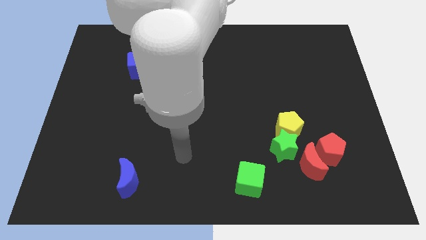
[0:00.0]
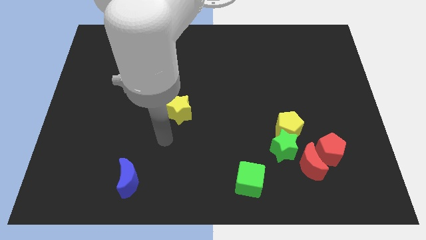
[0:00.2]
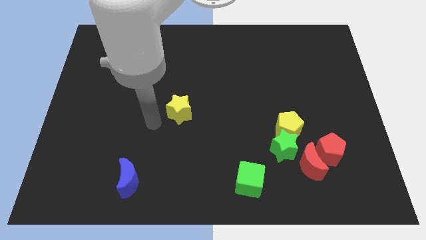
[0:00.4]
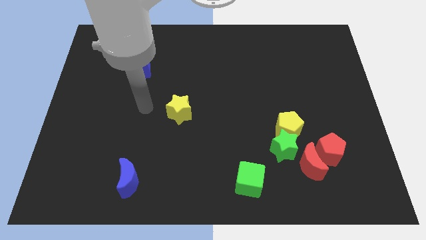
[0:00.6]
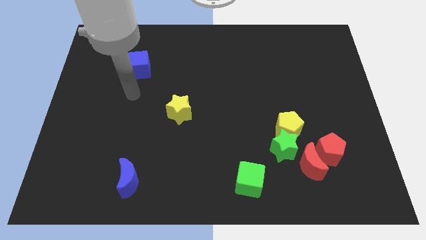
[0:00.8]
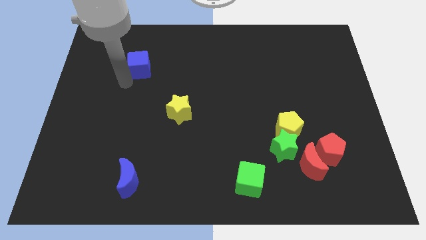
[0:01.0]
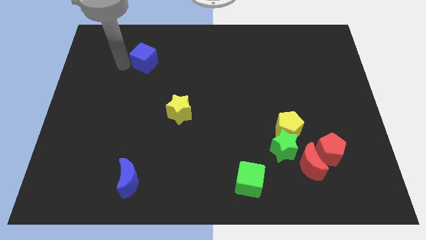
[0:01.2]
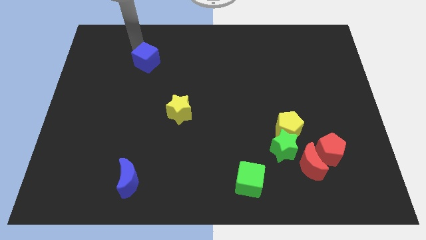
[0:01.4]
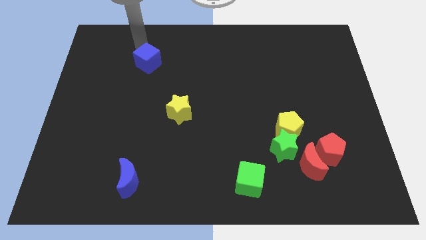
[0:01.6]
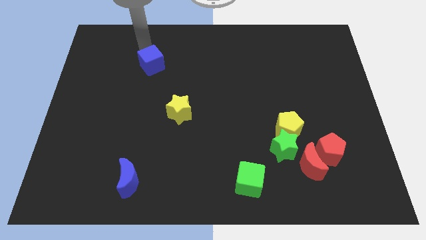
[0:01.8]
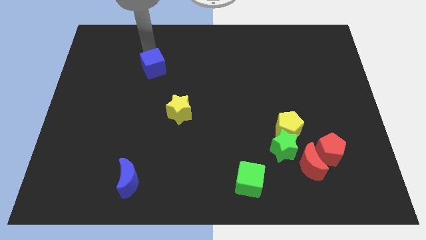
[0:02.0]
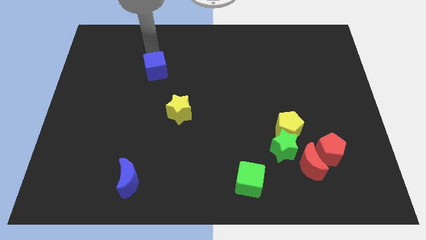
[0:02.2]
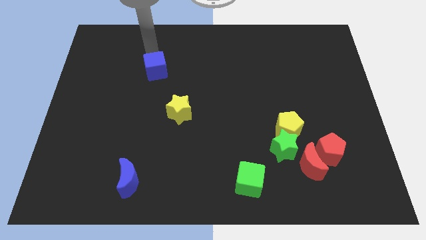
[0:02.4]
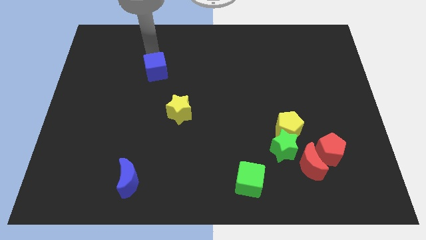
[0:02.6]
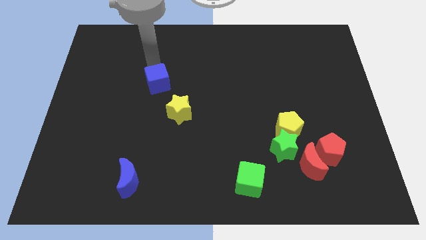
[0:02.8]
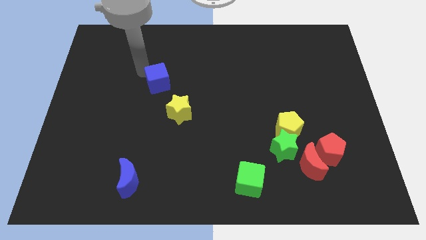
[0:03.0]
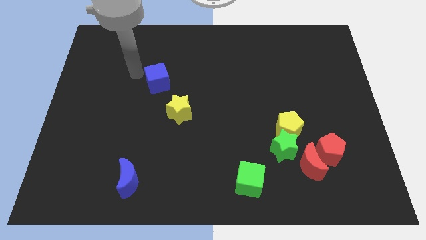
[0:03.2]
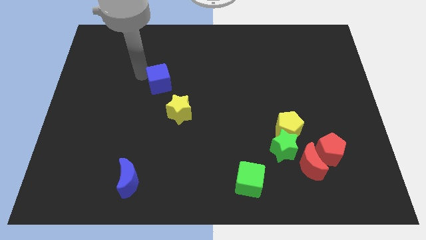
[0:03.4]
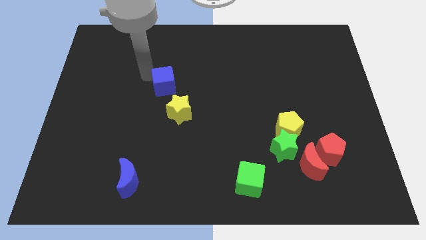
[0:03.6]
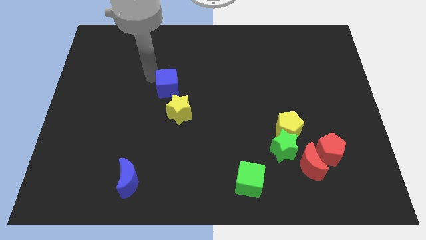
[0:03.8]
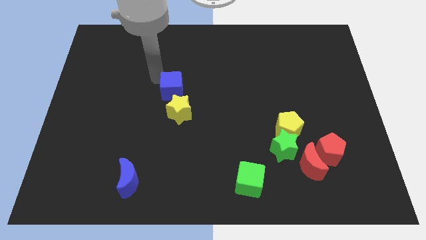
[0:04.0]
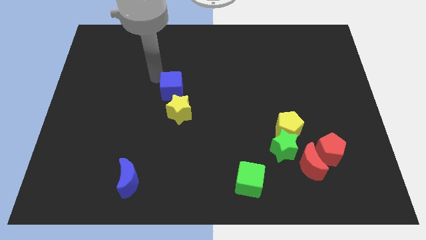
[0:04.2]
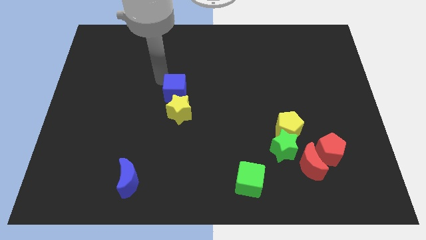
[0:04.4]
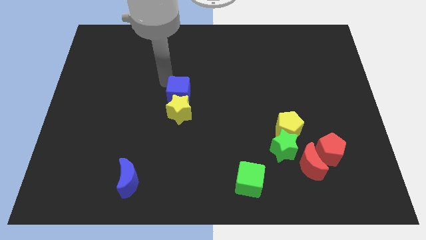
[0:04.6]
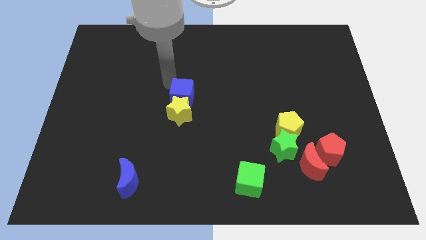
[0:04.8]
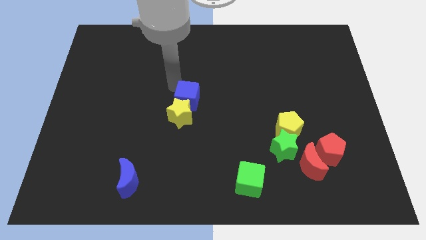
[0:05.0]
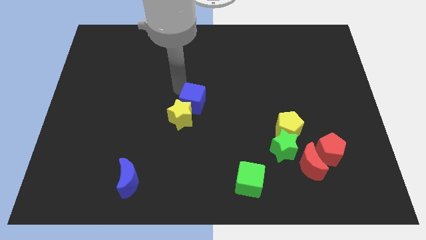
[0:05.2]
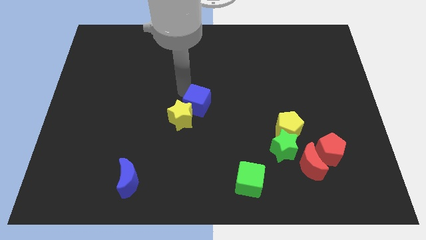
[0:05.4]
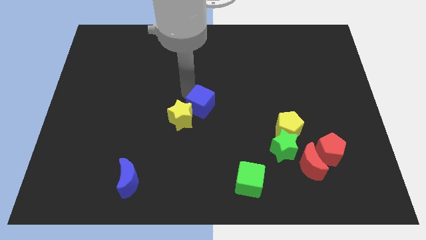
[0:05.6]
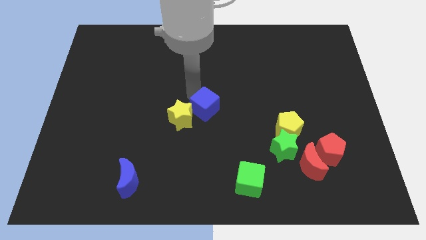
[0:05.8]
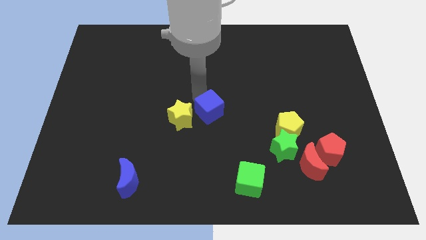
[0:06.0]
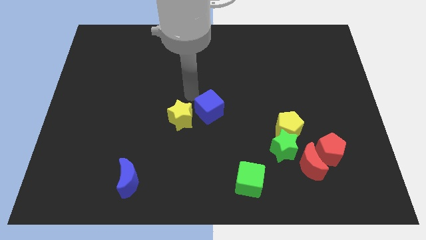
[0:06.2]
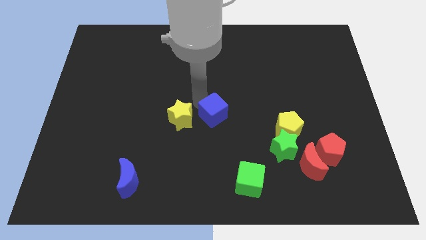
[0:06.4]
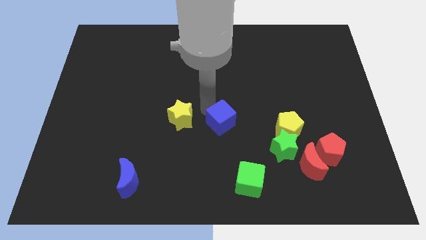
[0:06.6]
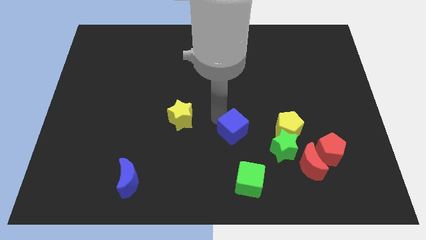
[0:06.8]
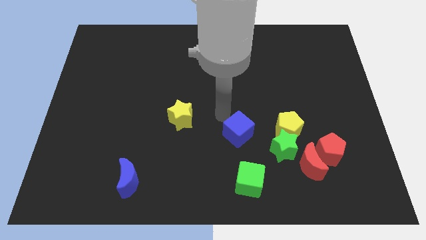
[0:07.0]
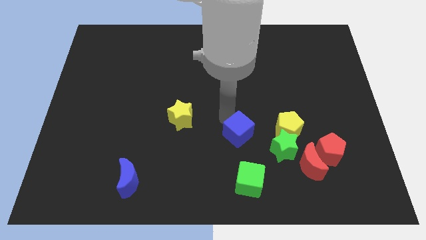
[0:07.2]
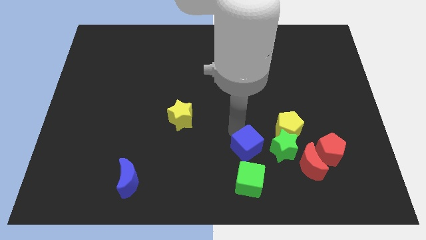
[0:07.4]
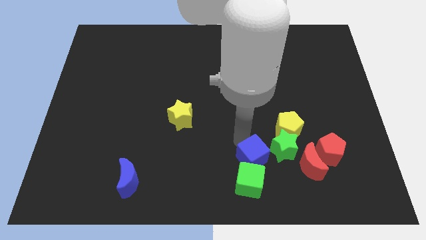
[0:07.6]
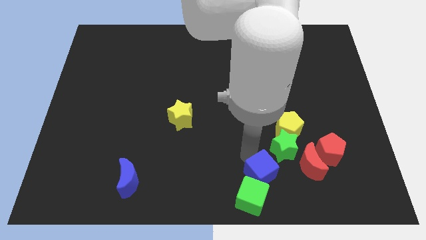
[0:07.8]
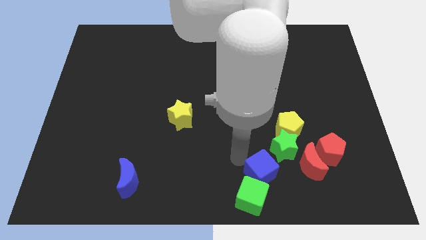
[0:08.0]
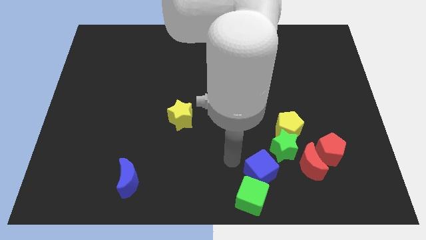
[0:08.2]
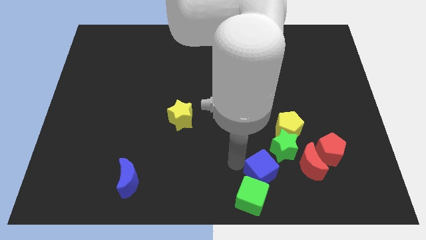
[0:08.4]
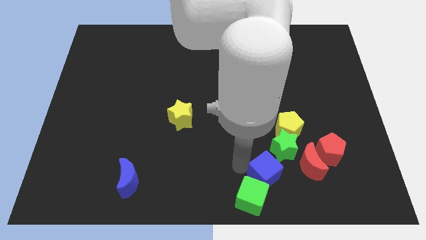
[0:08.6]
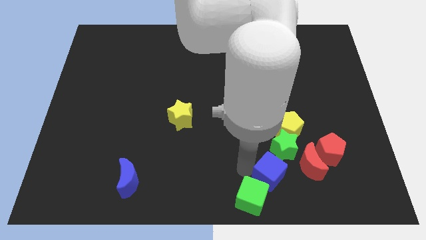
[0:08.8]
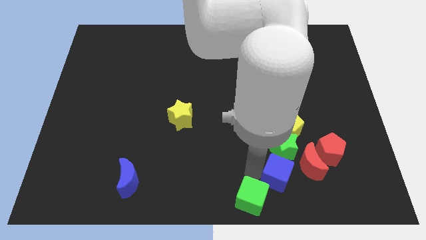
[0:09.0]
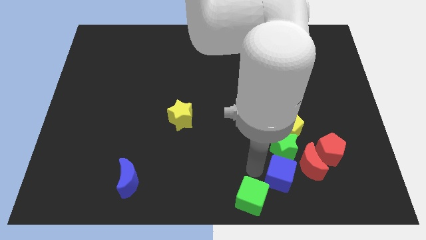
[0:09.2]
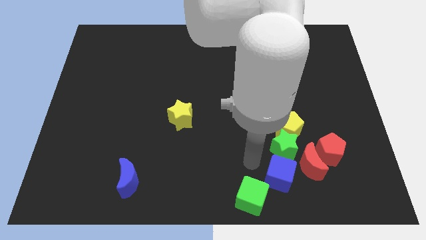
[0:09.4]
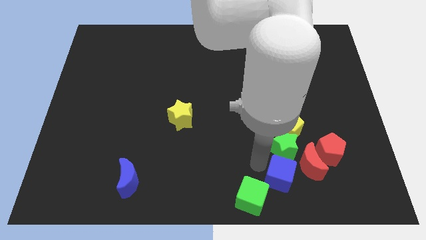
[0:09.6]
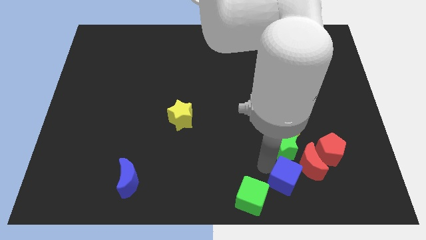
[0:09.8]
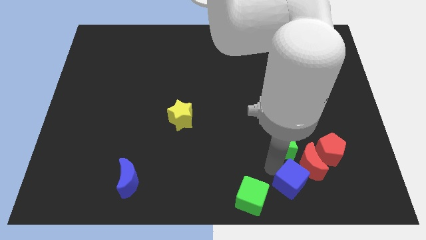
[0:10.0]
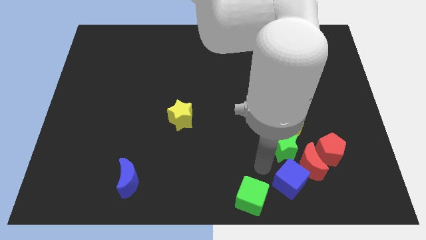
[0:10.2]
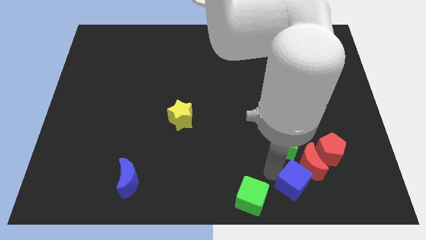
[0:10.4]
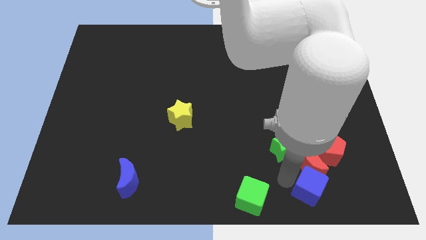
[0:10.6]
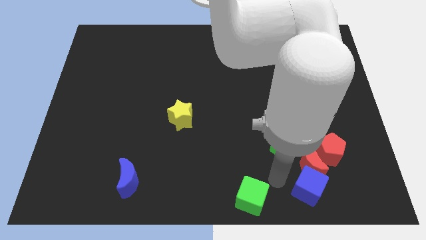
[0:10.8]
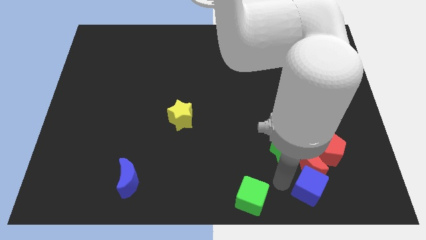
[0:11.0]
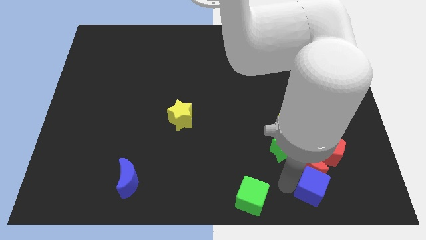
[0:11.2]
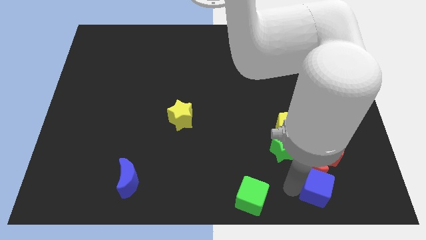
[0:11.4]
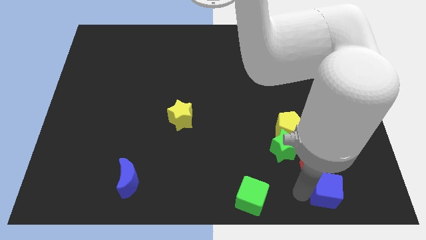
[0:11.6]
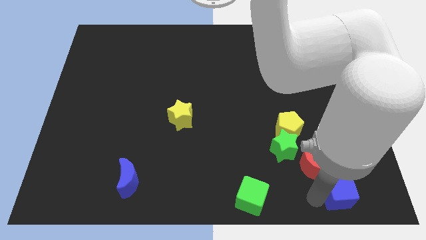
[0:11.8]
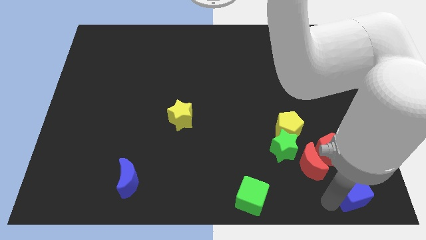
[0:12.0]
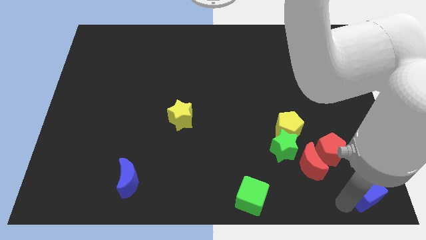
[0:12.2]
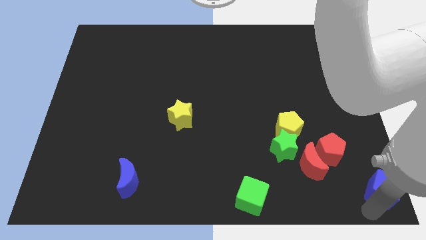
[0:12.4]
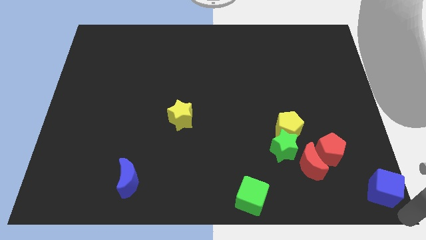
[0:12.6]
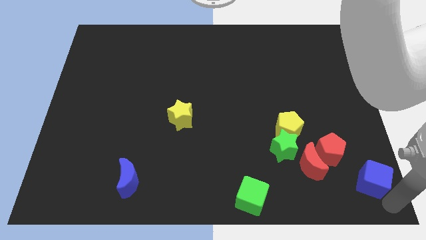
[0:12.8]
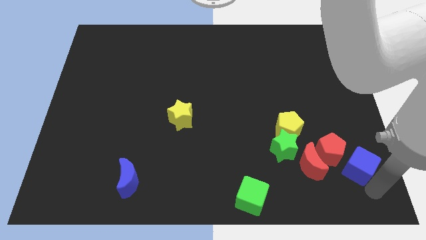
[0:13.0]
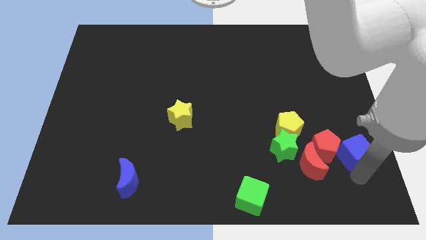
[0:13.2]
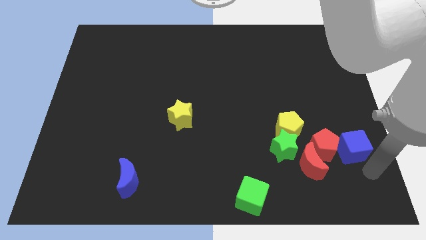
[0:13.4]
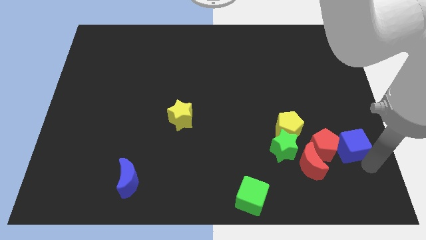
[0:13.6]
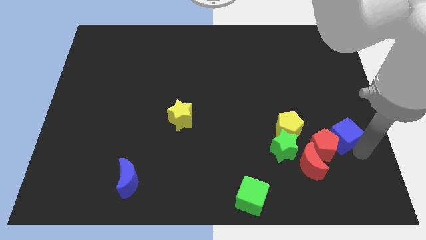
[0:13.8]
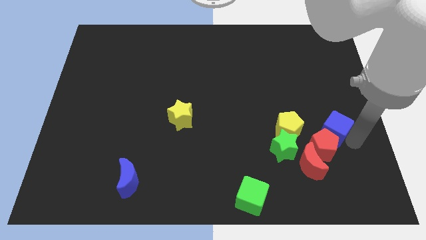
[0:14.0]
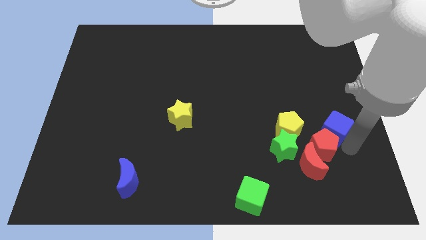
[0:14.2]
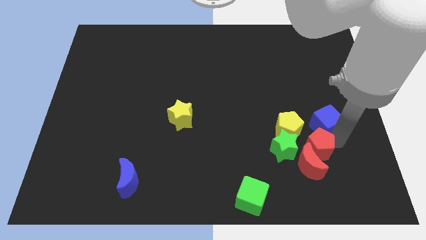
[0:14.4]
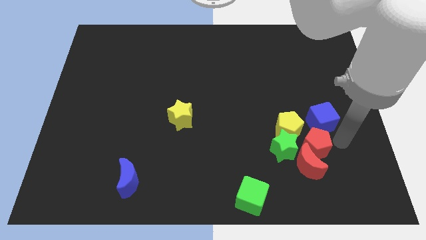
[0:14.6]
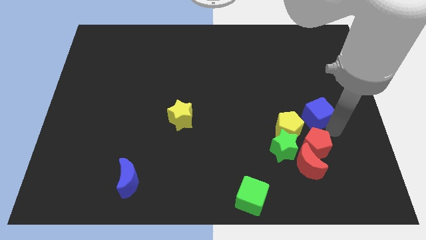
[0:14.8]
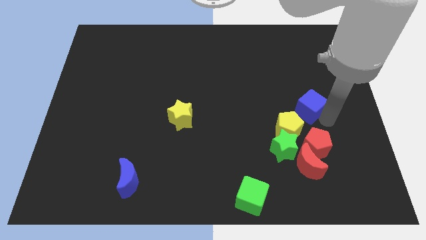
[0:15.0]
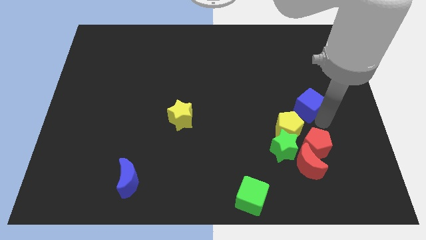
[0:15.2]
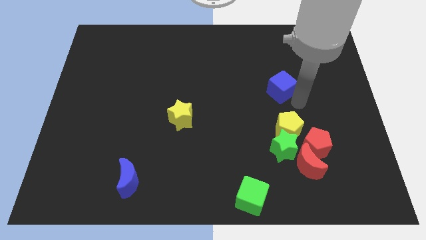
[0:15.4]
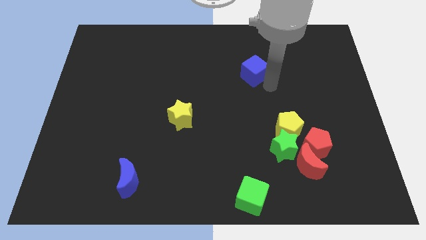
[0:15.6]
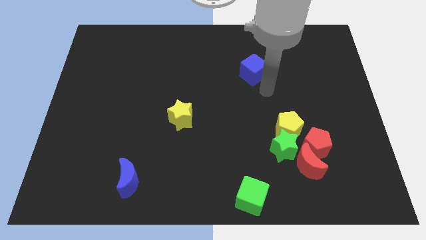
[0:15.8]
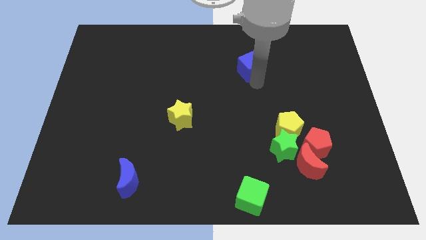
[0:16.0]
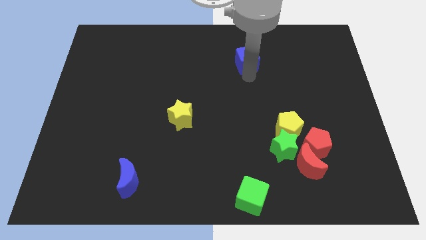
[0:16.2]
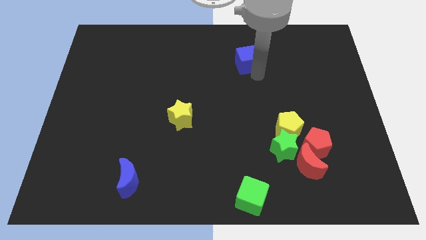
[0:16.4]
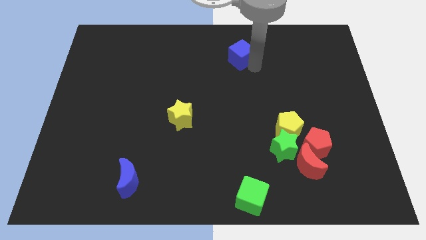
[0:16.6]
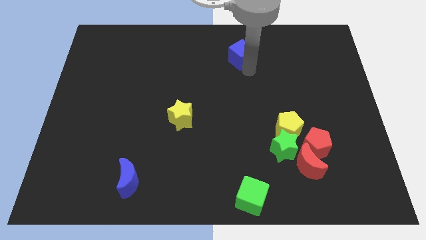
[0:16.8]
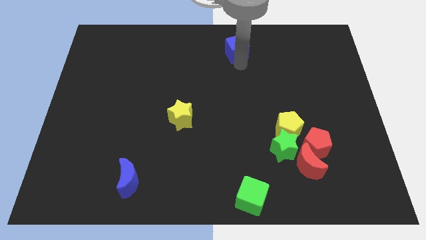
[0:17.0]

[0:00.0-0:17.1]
push the blue cube to the top side
